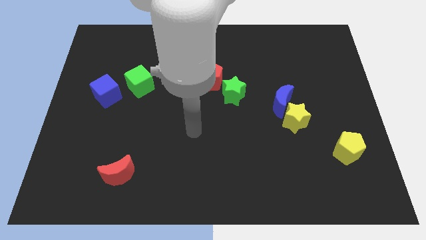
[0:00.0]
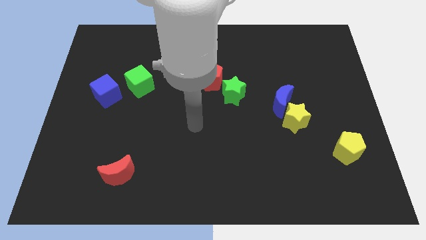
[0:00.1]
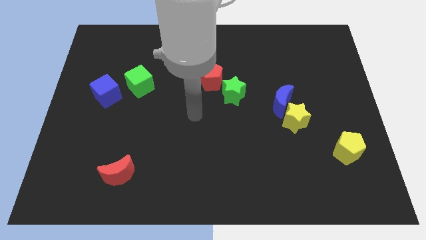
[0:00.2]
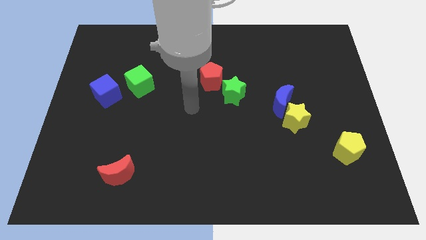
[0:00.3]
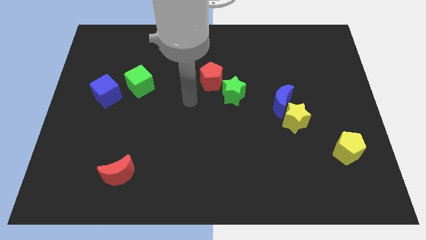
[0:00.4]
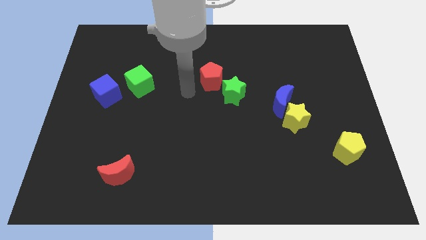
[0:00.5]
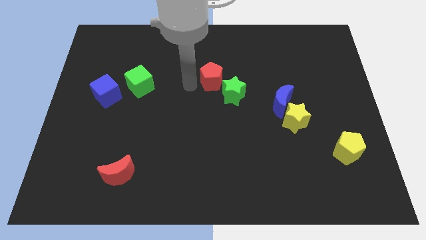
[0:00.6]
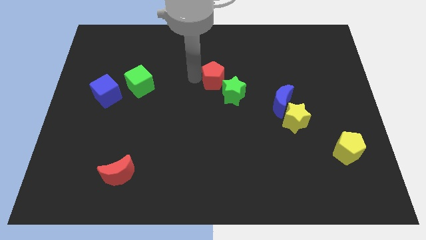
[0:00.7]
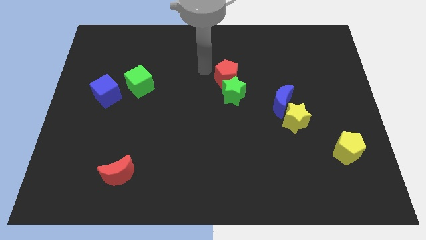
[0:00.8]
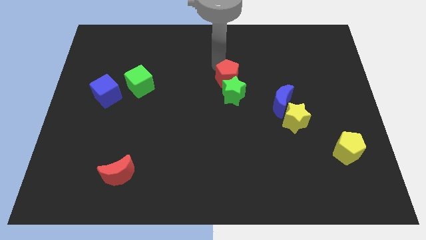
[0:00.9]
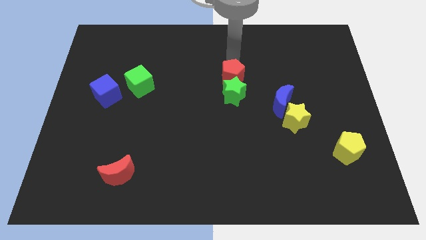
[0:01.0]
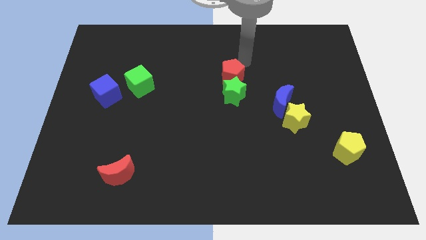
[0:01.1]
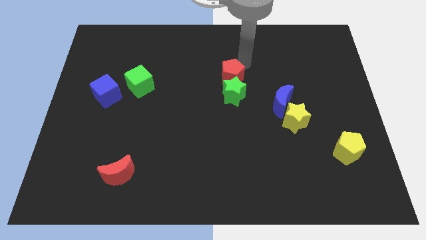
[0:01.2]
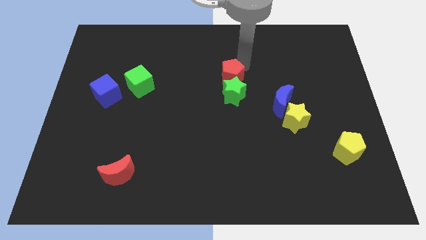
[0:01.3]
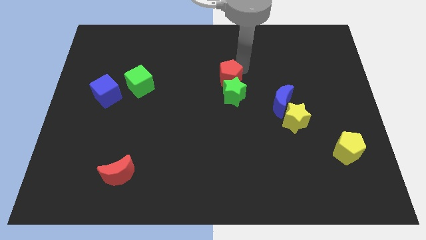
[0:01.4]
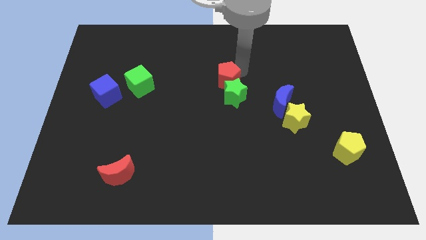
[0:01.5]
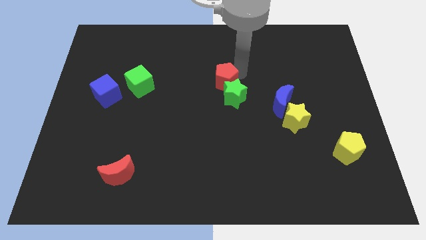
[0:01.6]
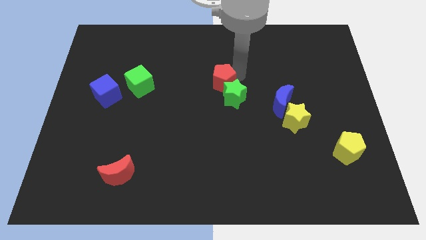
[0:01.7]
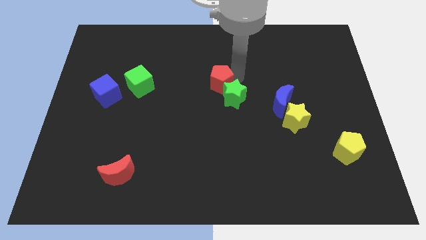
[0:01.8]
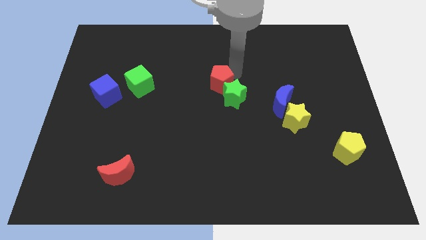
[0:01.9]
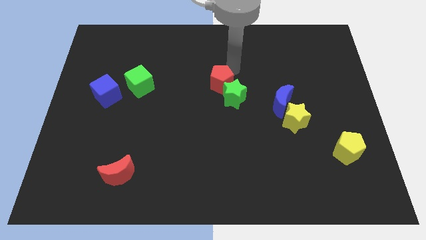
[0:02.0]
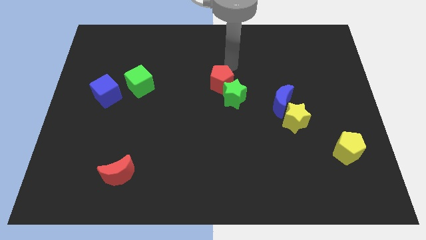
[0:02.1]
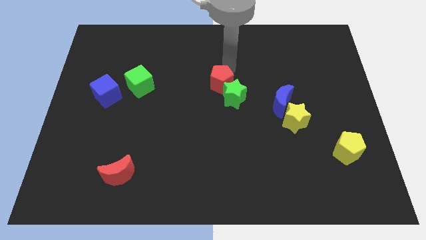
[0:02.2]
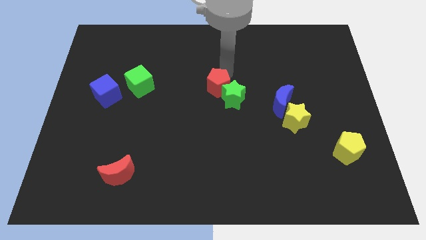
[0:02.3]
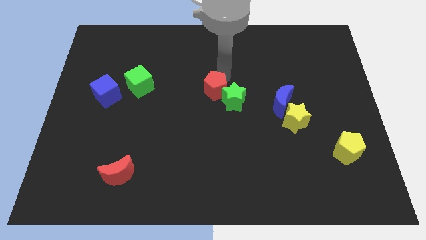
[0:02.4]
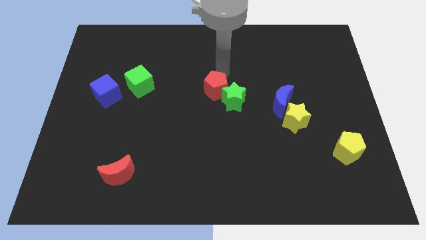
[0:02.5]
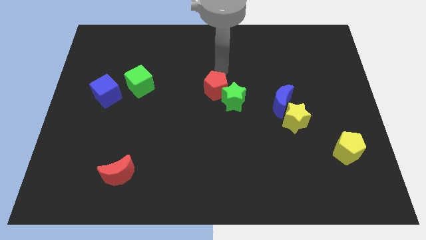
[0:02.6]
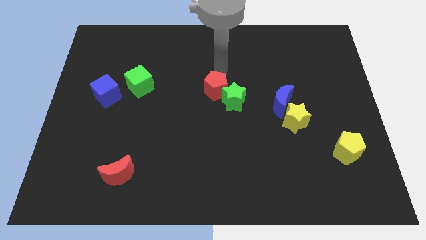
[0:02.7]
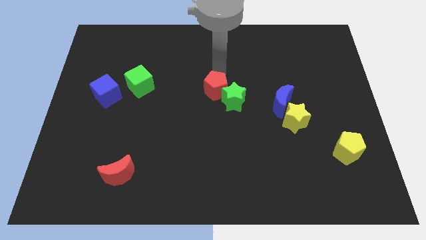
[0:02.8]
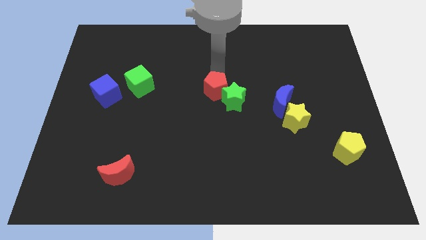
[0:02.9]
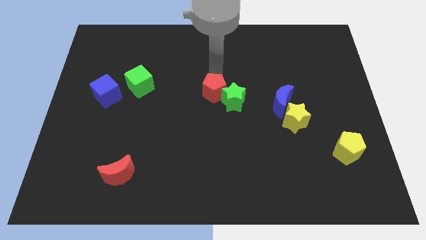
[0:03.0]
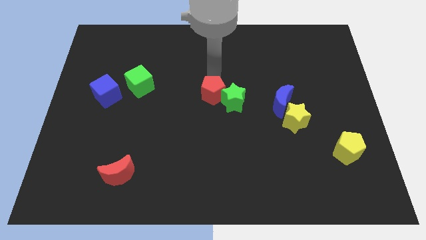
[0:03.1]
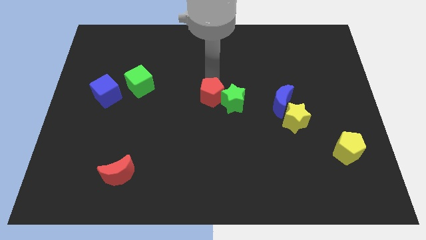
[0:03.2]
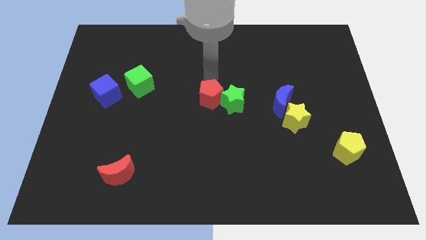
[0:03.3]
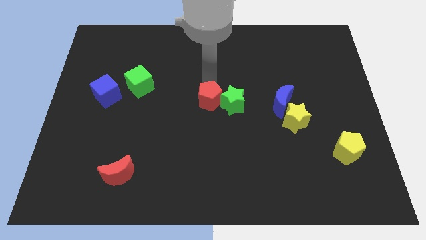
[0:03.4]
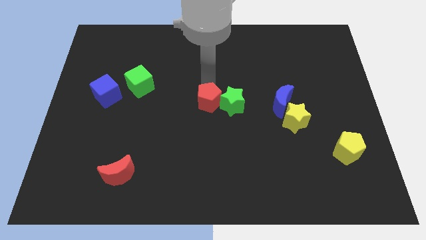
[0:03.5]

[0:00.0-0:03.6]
slightly slide the red pentagon downwards

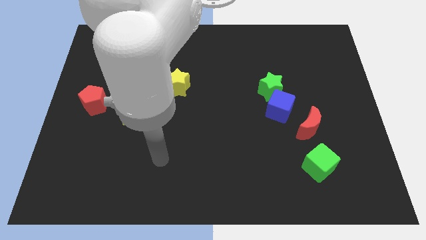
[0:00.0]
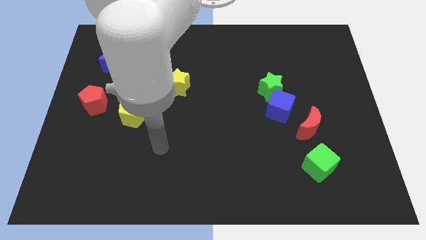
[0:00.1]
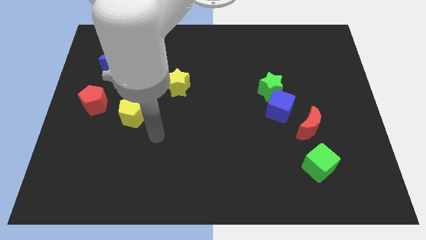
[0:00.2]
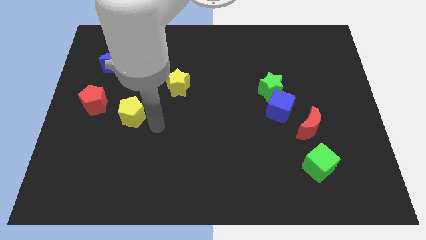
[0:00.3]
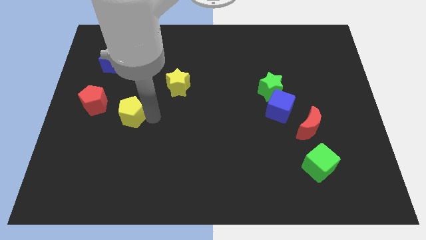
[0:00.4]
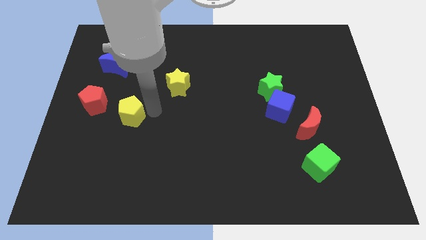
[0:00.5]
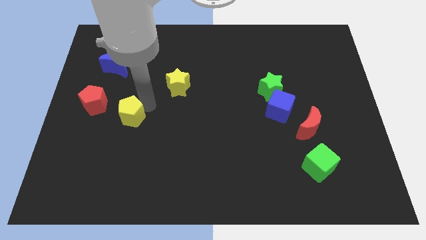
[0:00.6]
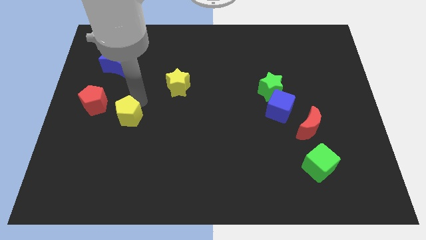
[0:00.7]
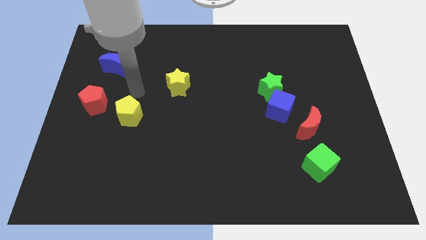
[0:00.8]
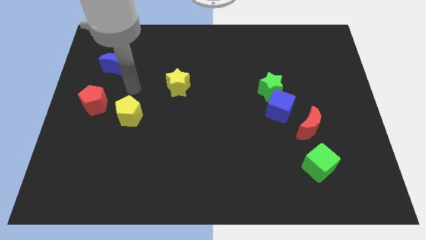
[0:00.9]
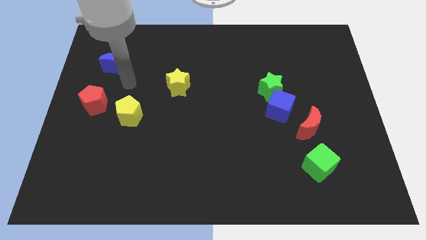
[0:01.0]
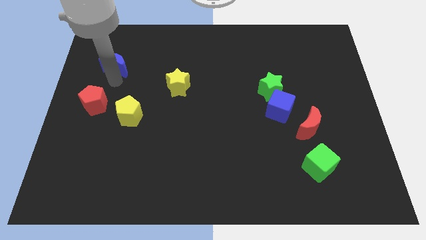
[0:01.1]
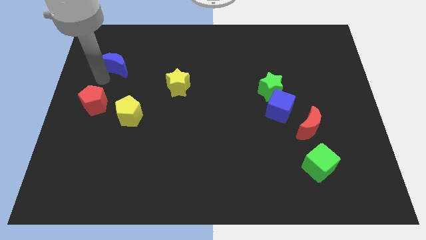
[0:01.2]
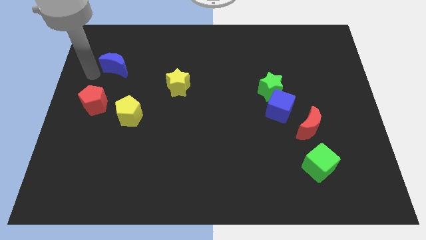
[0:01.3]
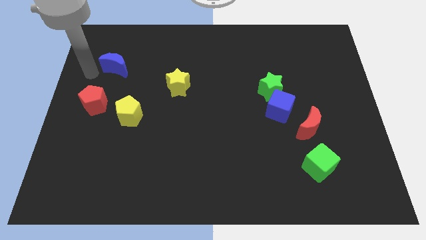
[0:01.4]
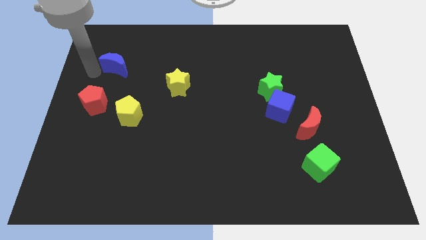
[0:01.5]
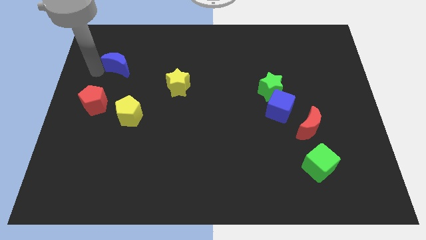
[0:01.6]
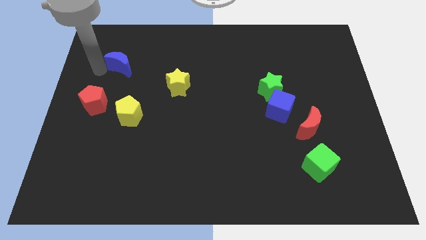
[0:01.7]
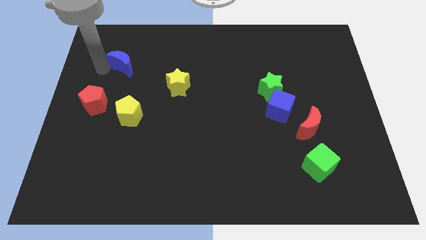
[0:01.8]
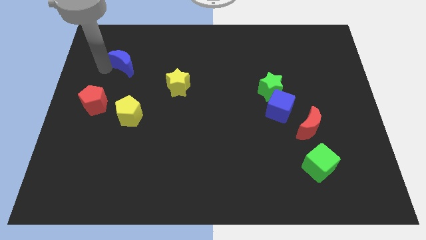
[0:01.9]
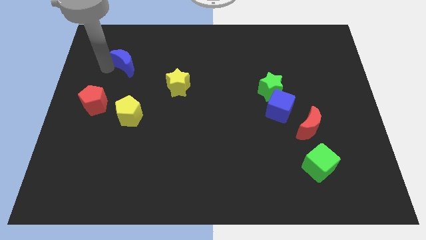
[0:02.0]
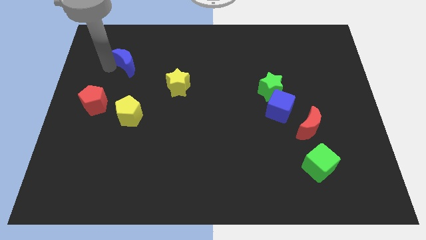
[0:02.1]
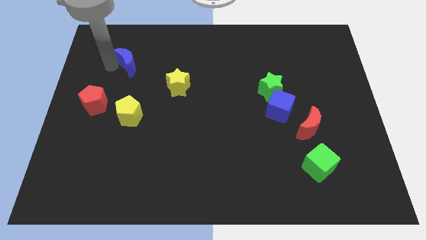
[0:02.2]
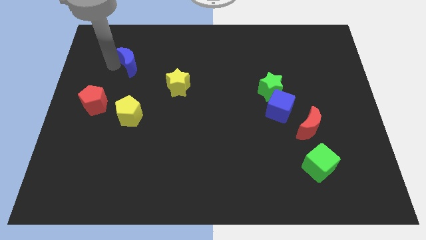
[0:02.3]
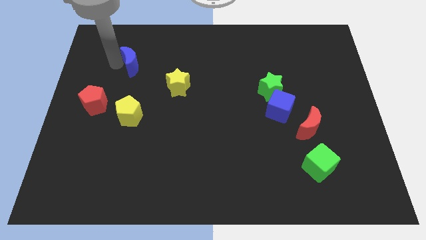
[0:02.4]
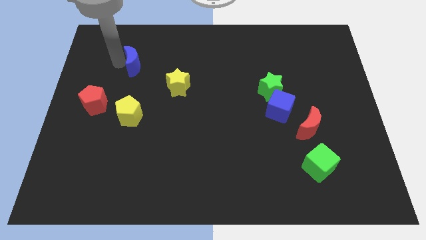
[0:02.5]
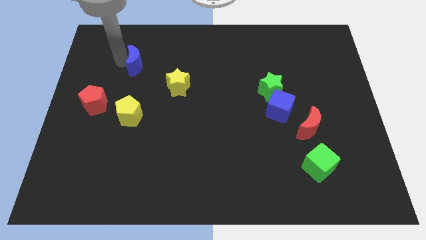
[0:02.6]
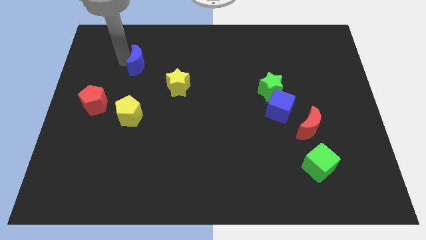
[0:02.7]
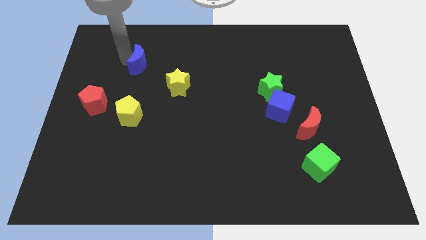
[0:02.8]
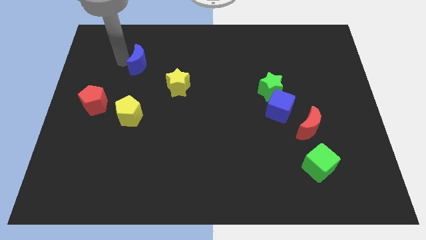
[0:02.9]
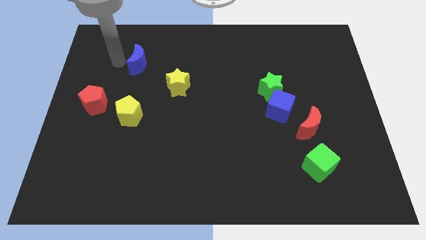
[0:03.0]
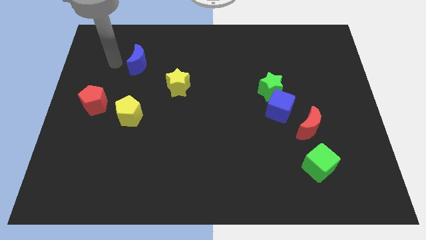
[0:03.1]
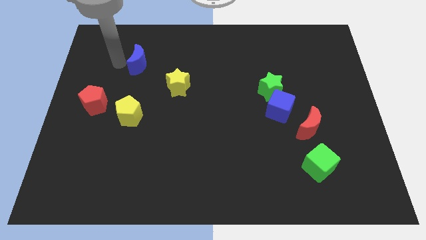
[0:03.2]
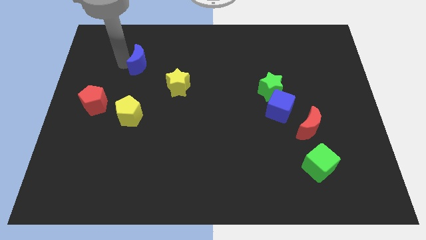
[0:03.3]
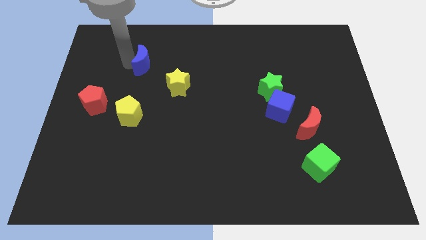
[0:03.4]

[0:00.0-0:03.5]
push the blue moon to the right slightly

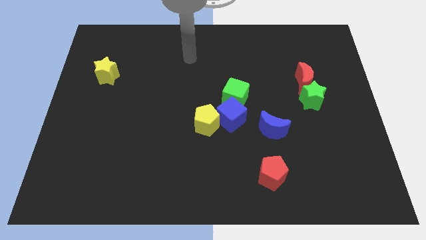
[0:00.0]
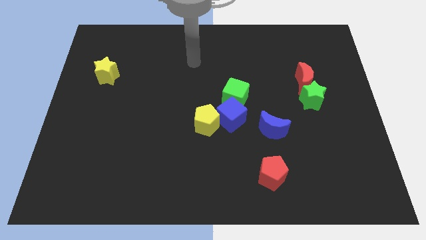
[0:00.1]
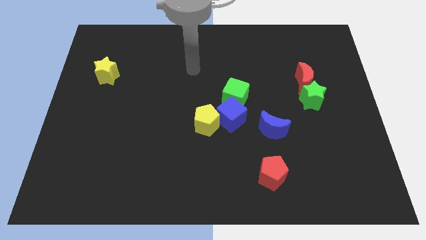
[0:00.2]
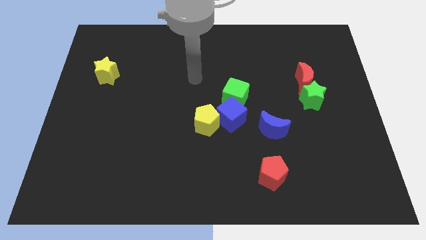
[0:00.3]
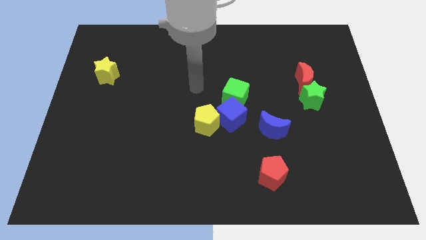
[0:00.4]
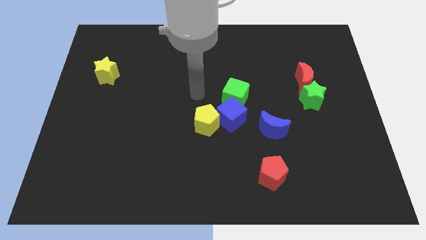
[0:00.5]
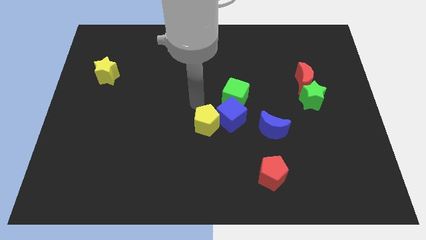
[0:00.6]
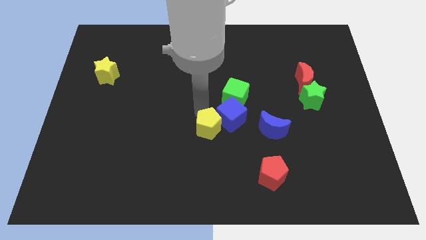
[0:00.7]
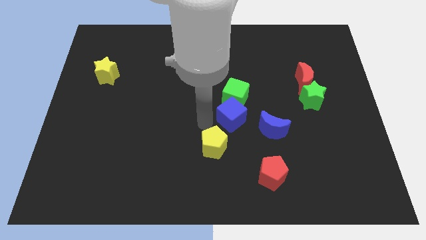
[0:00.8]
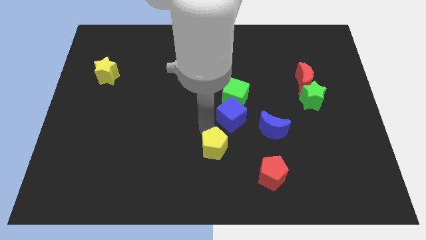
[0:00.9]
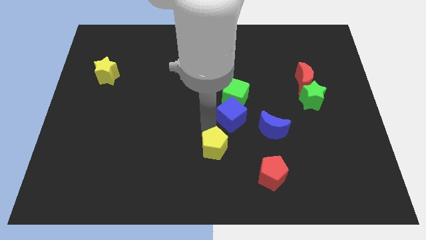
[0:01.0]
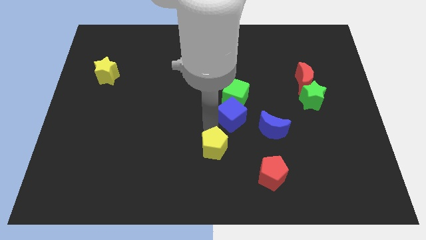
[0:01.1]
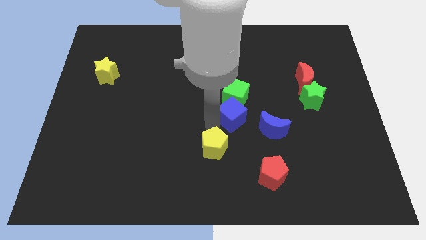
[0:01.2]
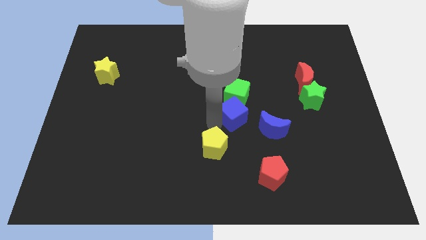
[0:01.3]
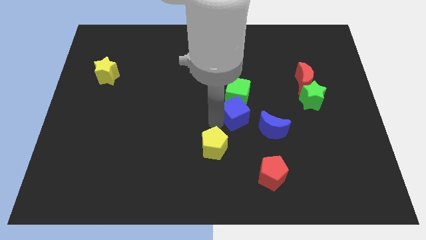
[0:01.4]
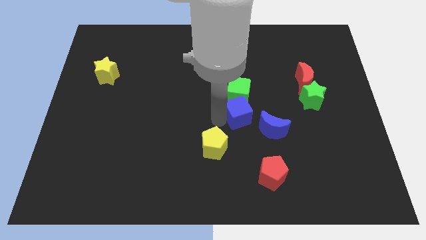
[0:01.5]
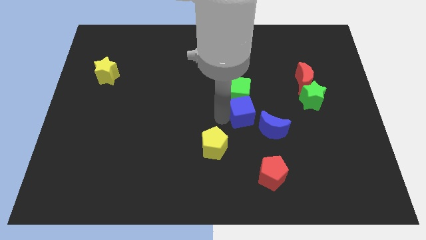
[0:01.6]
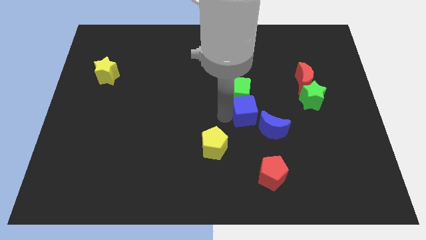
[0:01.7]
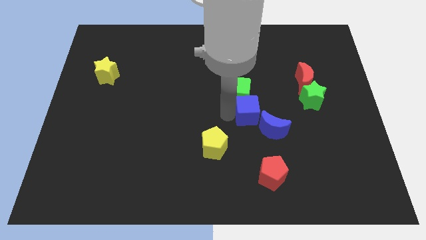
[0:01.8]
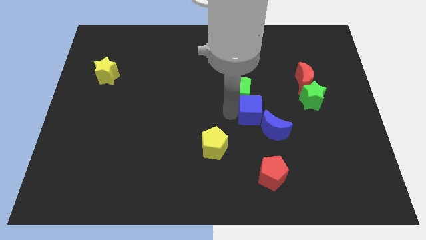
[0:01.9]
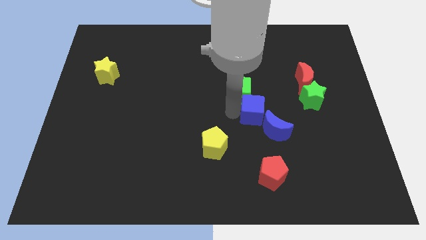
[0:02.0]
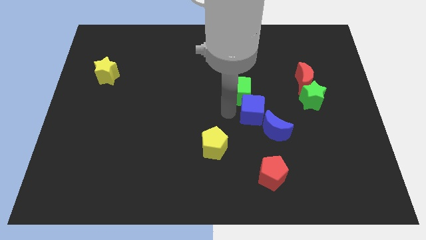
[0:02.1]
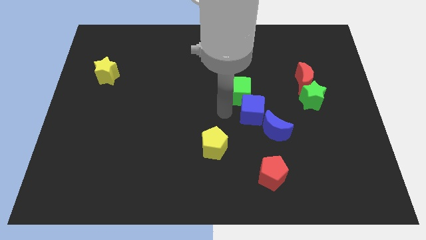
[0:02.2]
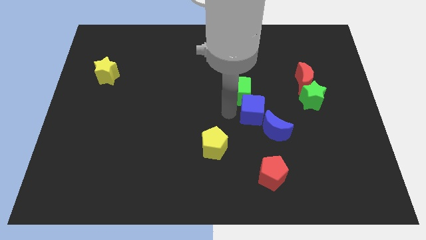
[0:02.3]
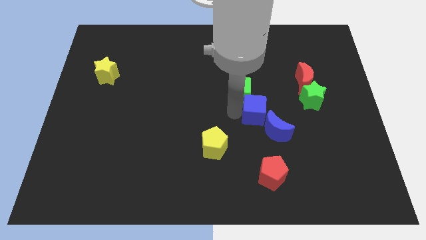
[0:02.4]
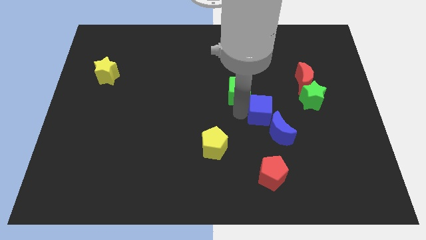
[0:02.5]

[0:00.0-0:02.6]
slide the blue cube a bit to the right
